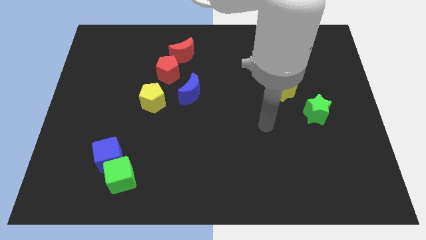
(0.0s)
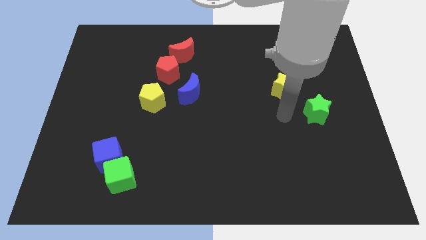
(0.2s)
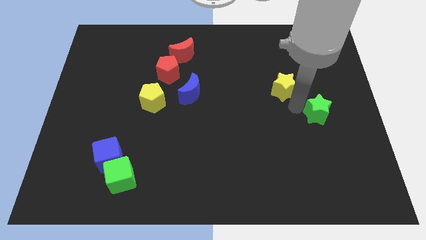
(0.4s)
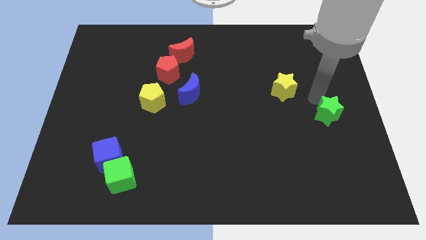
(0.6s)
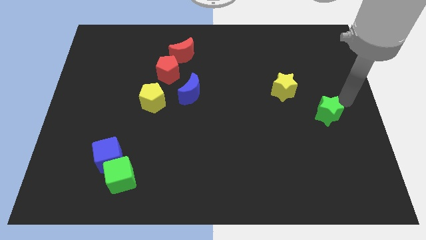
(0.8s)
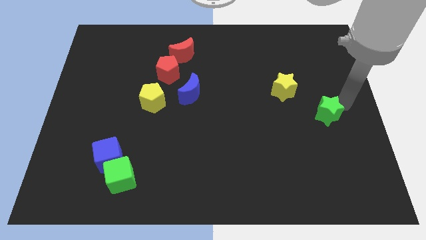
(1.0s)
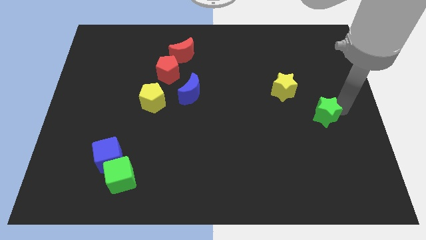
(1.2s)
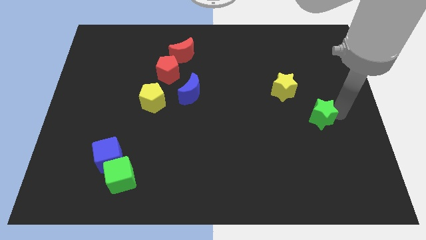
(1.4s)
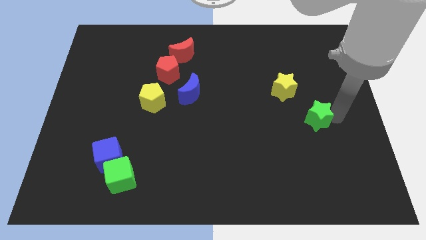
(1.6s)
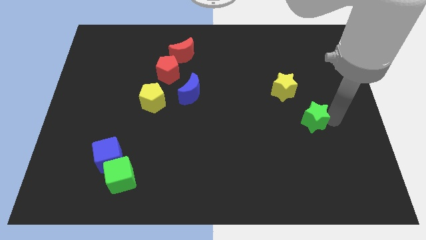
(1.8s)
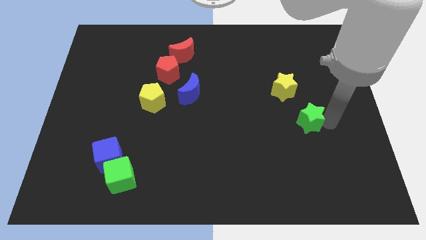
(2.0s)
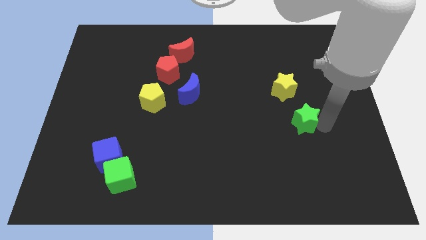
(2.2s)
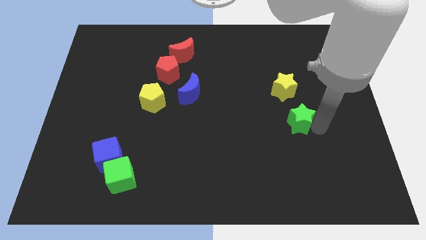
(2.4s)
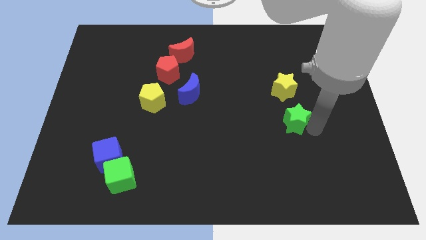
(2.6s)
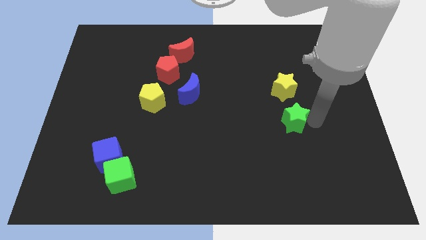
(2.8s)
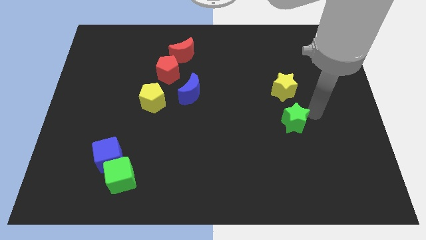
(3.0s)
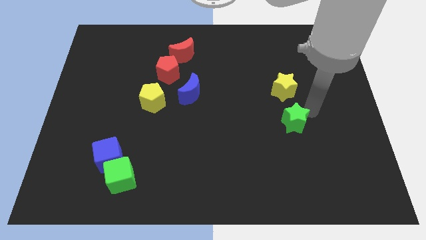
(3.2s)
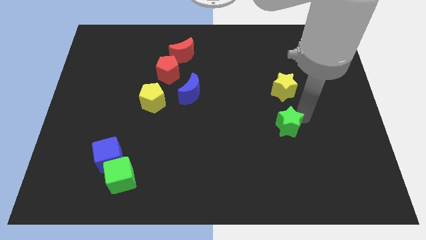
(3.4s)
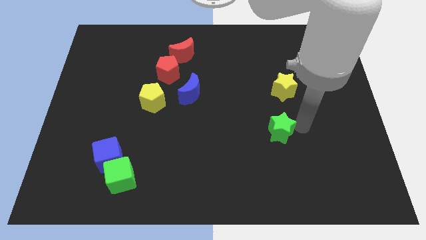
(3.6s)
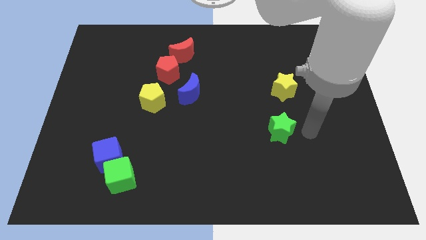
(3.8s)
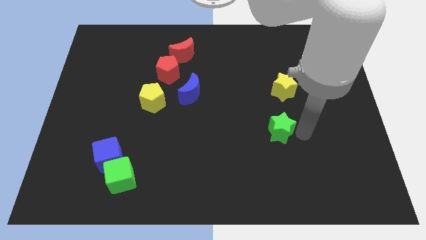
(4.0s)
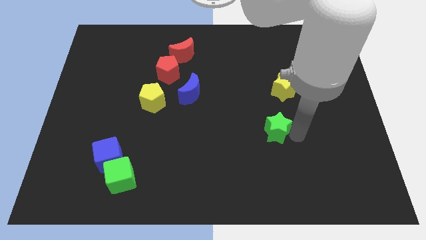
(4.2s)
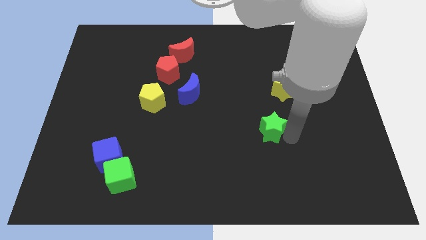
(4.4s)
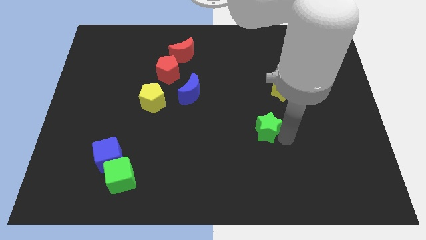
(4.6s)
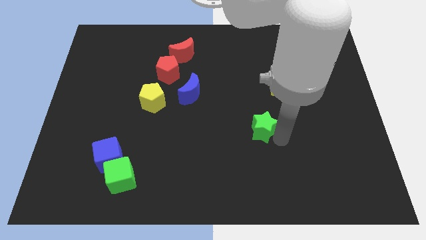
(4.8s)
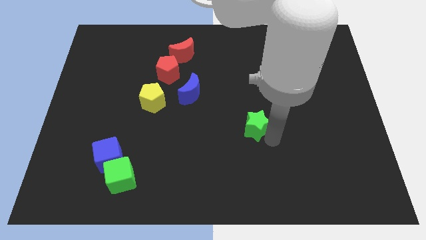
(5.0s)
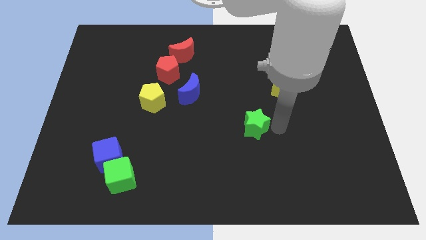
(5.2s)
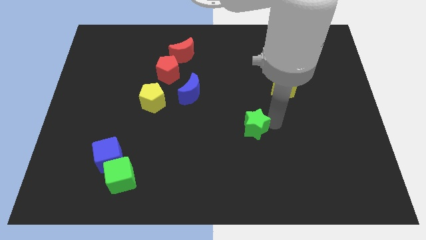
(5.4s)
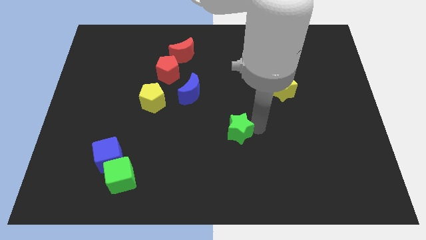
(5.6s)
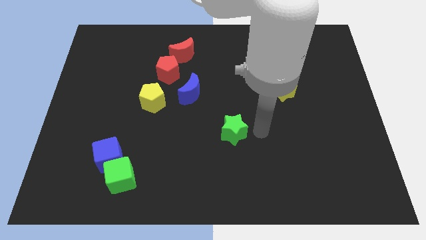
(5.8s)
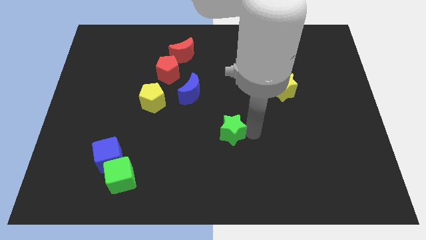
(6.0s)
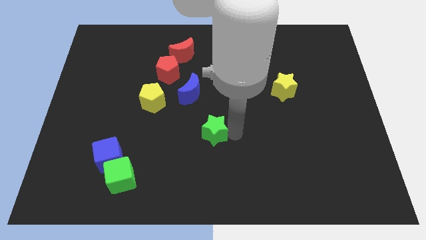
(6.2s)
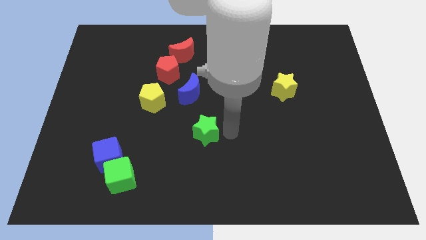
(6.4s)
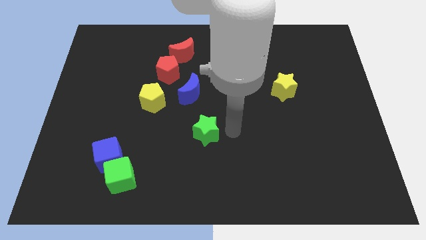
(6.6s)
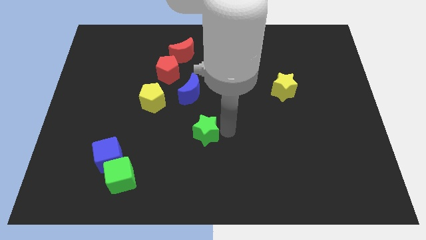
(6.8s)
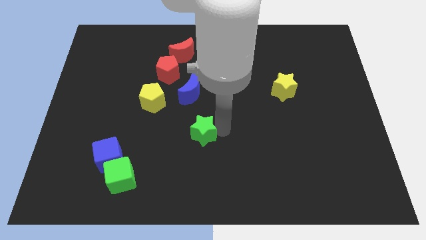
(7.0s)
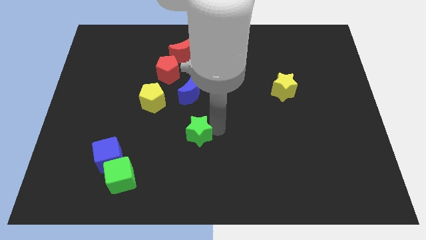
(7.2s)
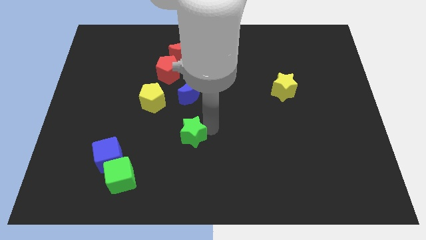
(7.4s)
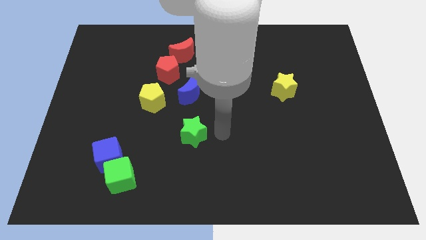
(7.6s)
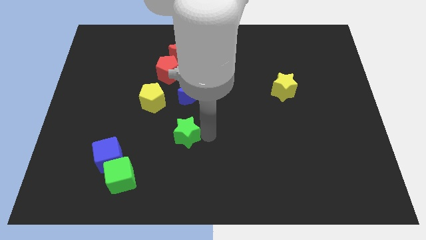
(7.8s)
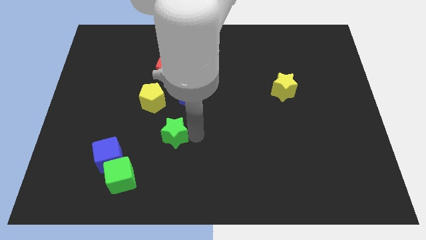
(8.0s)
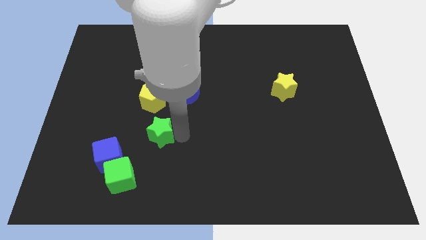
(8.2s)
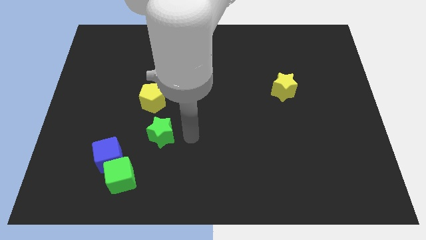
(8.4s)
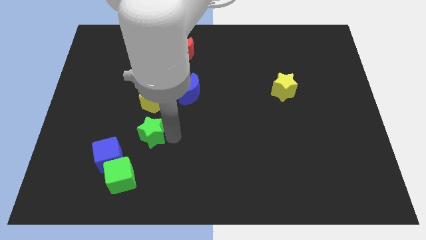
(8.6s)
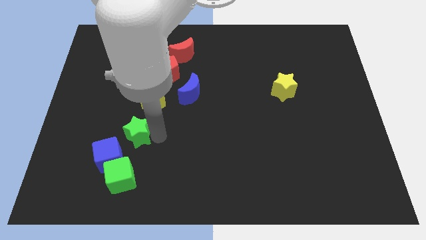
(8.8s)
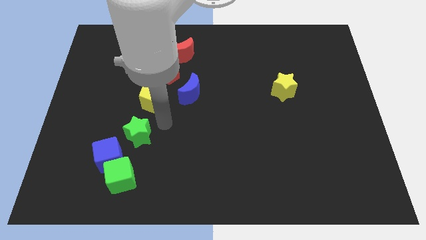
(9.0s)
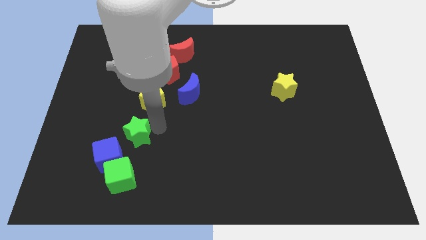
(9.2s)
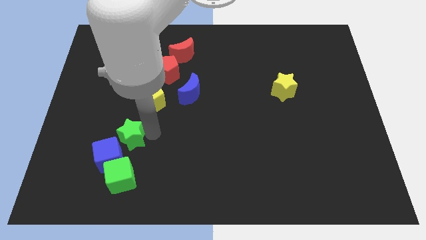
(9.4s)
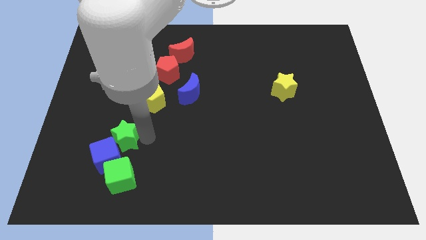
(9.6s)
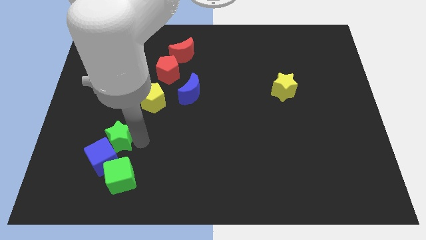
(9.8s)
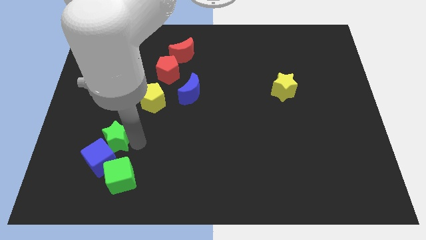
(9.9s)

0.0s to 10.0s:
put the green star to the top left of the green cube

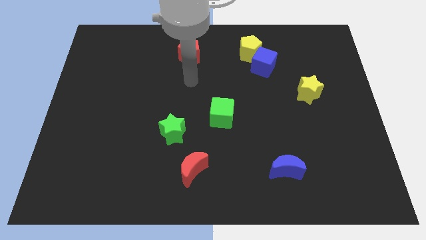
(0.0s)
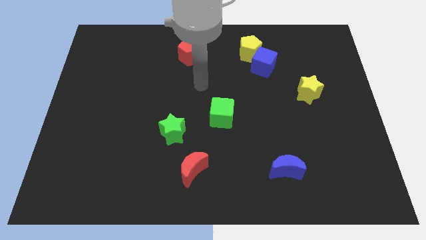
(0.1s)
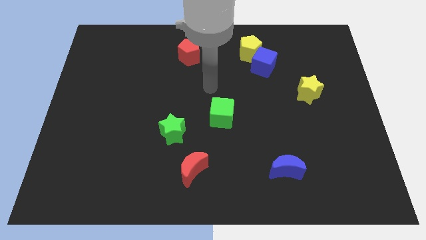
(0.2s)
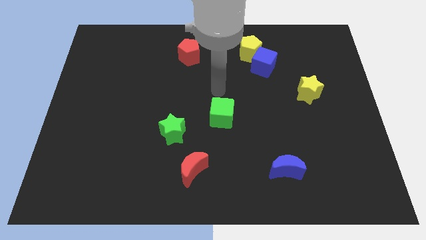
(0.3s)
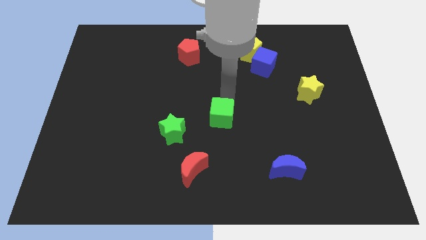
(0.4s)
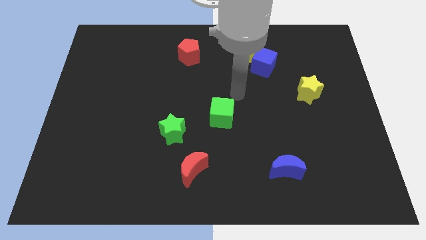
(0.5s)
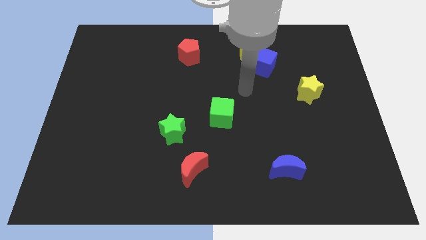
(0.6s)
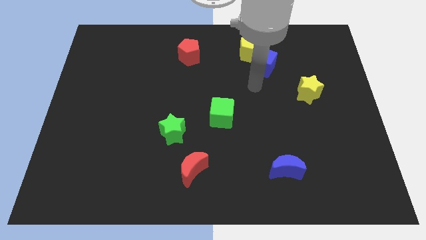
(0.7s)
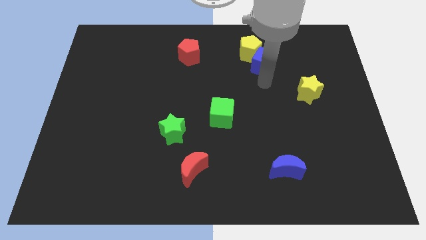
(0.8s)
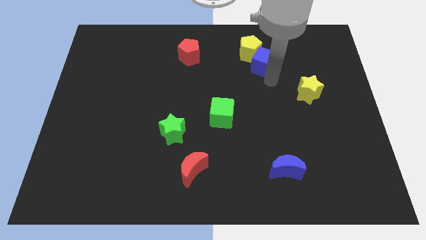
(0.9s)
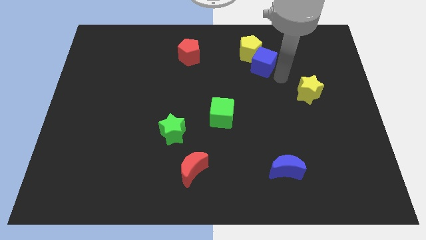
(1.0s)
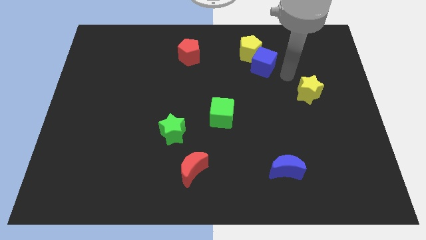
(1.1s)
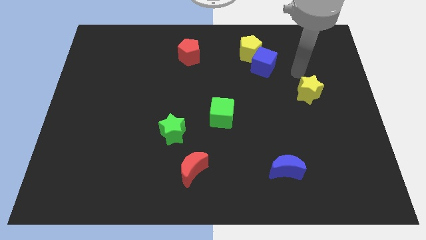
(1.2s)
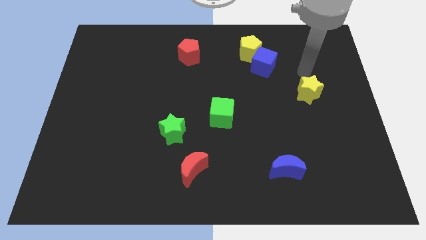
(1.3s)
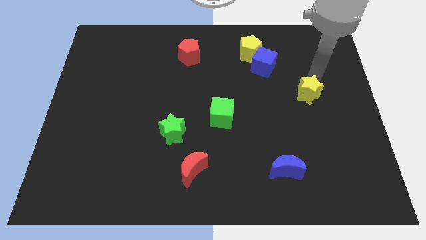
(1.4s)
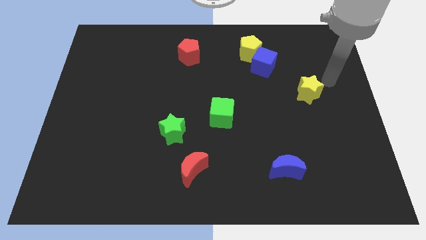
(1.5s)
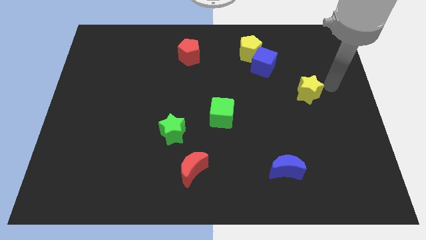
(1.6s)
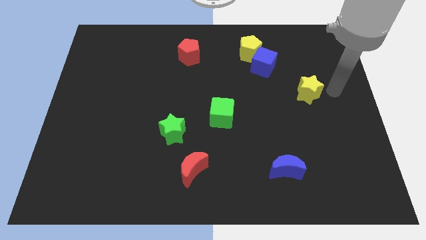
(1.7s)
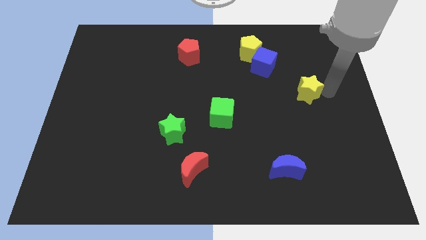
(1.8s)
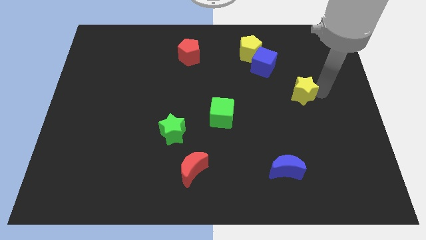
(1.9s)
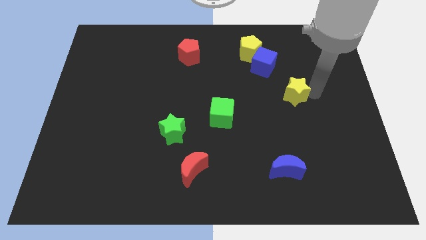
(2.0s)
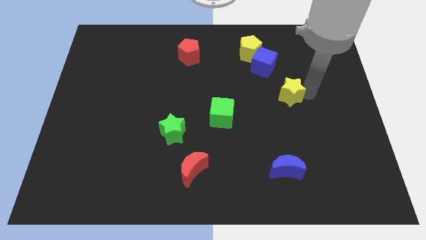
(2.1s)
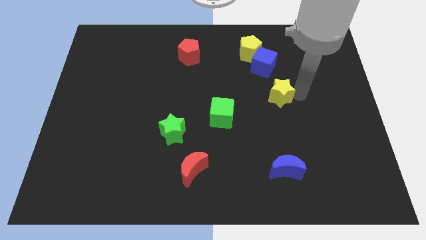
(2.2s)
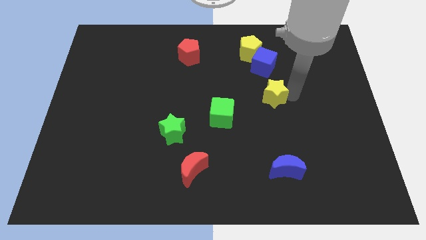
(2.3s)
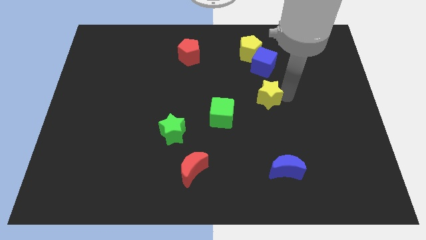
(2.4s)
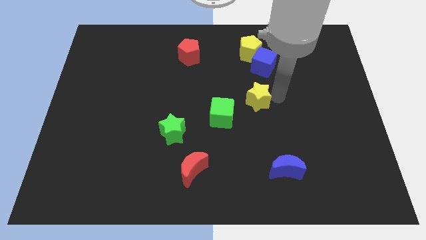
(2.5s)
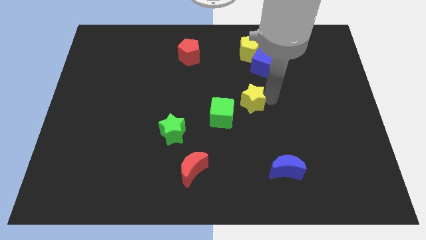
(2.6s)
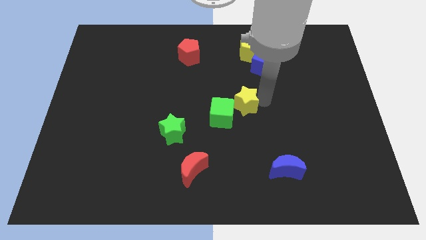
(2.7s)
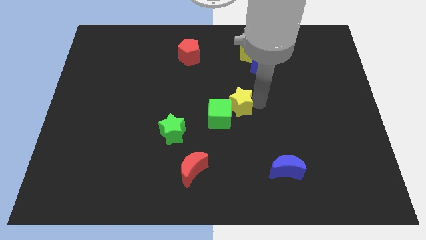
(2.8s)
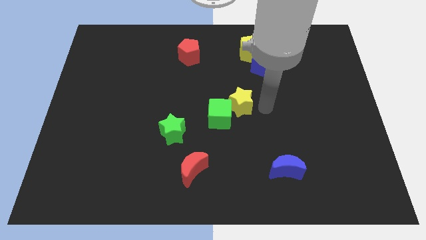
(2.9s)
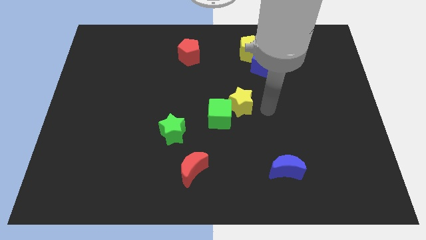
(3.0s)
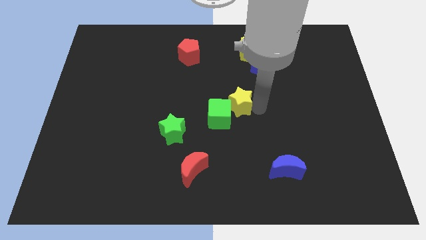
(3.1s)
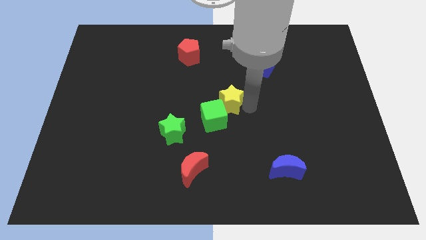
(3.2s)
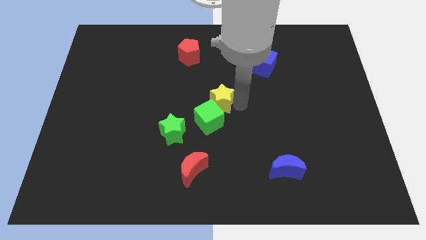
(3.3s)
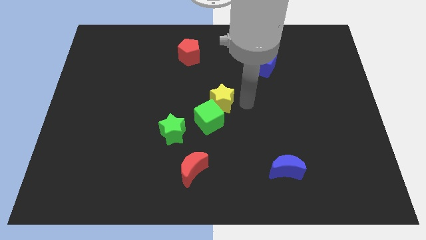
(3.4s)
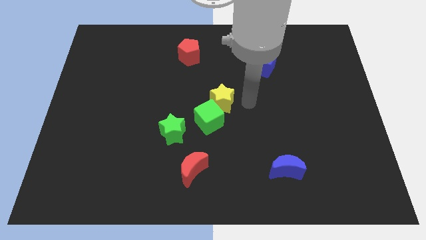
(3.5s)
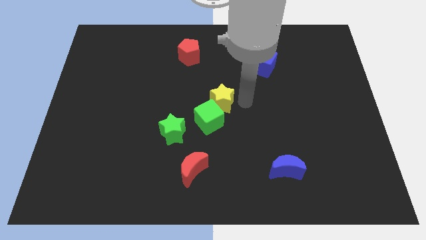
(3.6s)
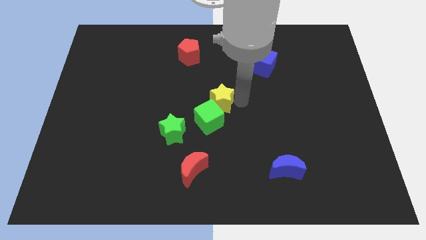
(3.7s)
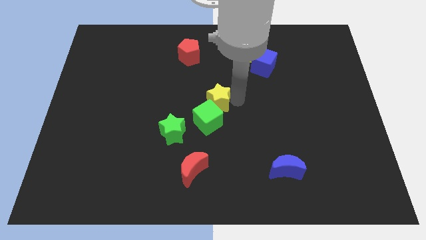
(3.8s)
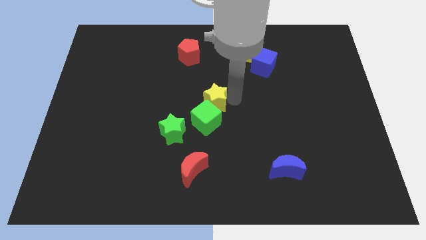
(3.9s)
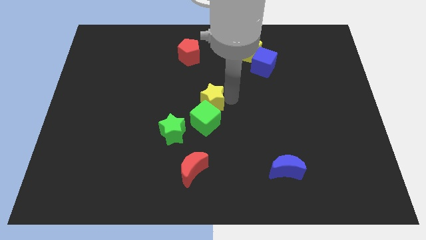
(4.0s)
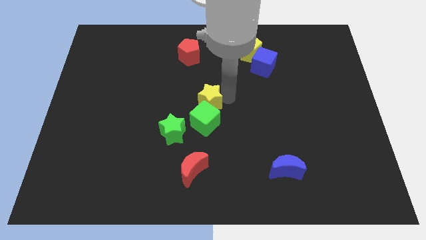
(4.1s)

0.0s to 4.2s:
put the yellow star to the top left side of the green cube
